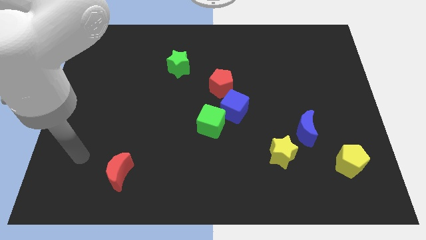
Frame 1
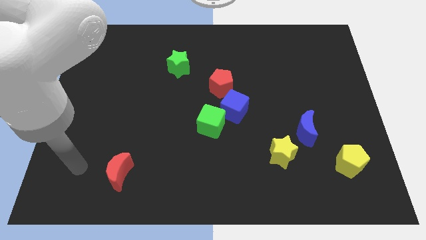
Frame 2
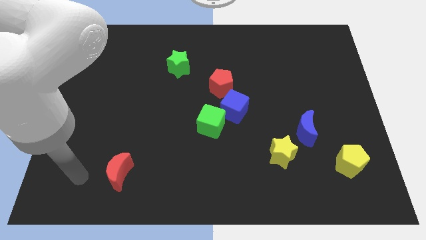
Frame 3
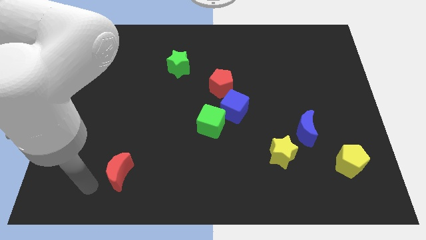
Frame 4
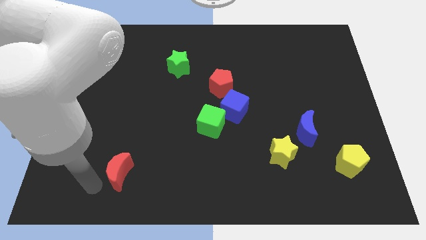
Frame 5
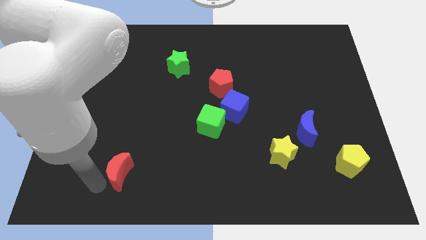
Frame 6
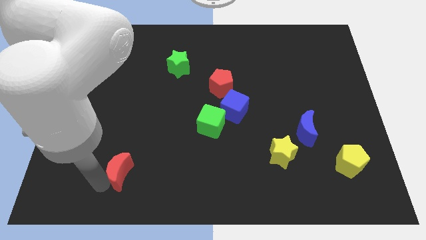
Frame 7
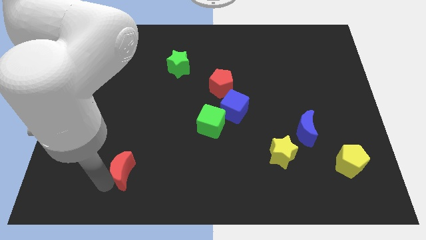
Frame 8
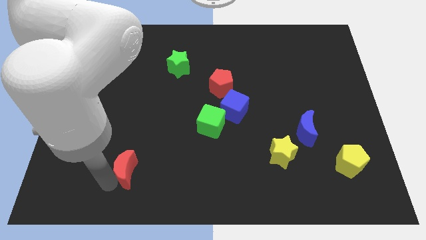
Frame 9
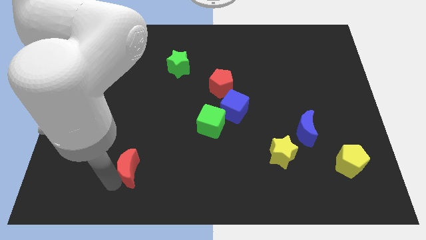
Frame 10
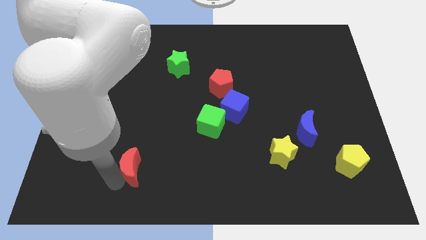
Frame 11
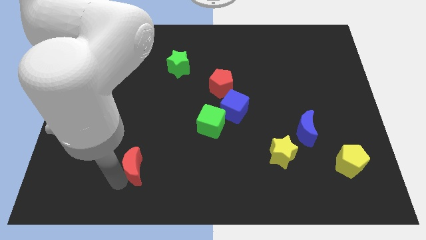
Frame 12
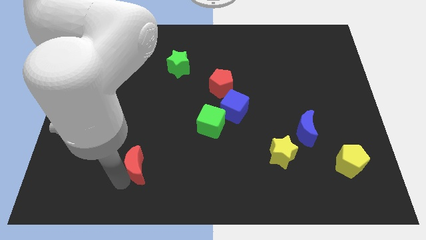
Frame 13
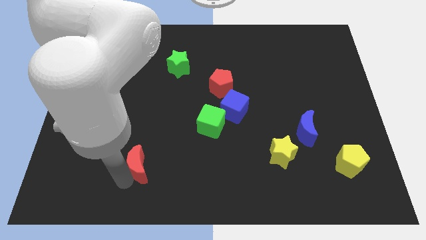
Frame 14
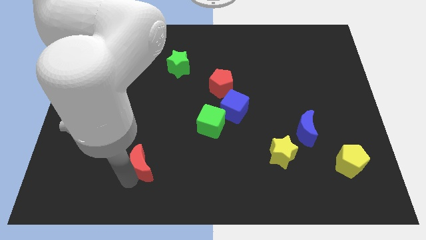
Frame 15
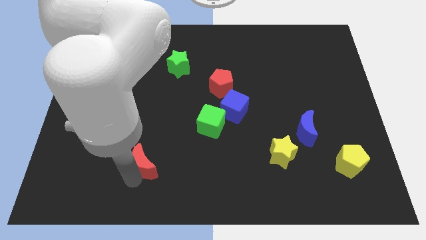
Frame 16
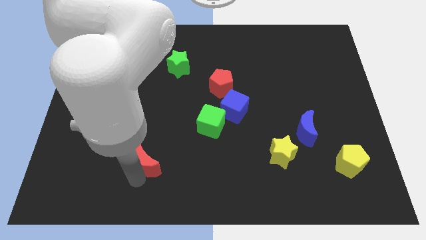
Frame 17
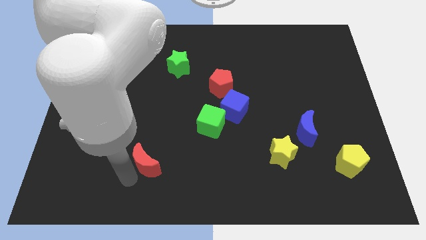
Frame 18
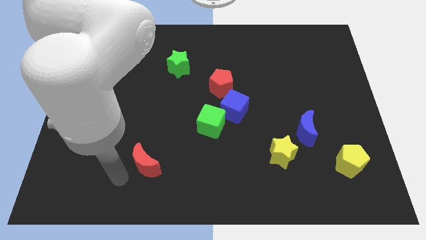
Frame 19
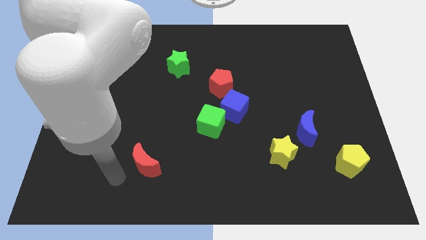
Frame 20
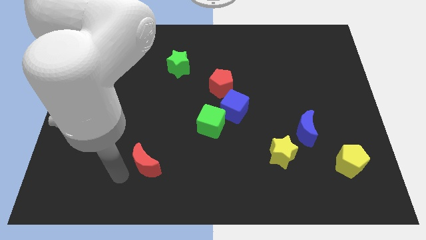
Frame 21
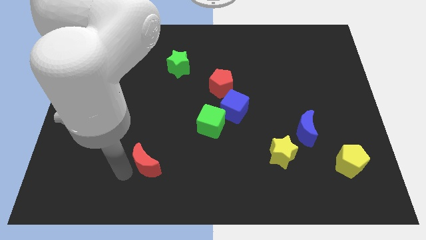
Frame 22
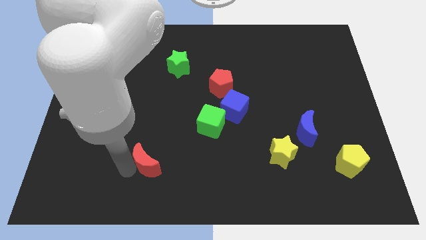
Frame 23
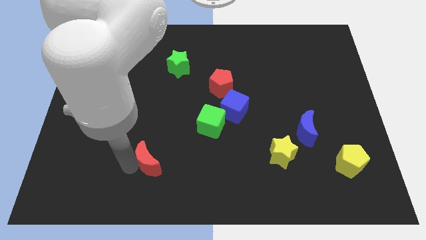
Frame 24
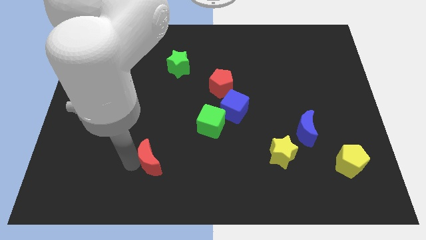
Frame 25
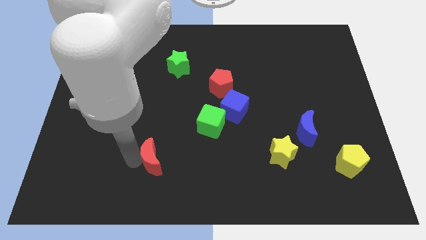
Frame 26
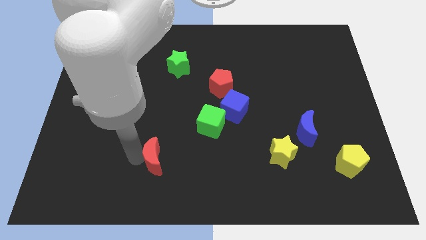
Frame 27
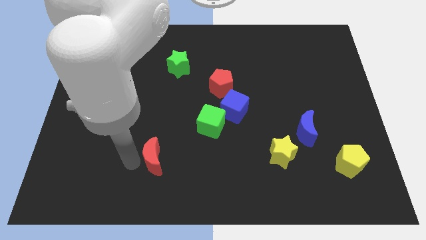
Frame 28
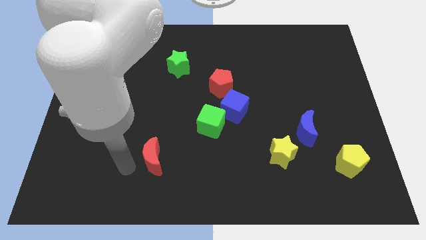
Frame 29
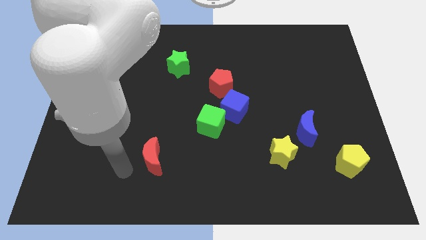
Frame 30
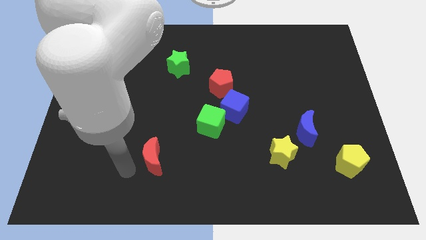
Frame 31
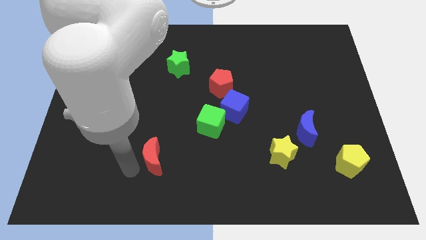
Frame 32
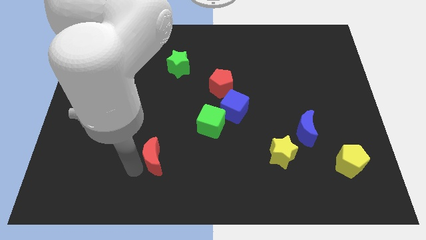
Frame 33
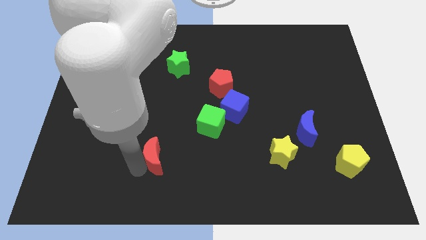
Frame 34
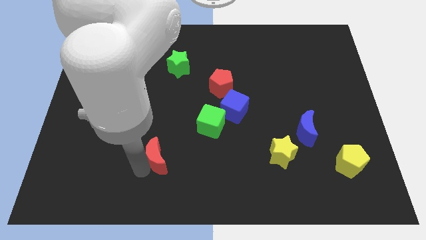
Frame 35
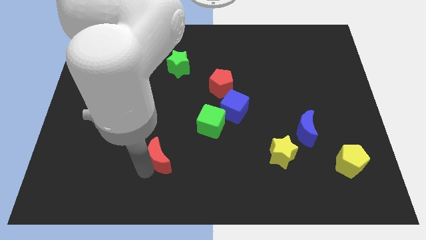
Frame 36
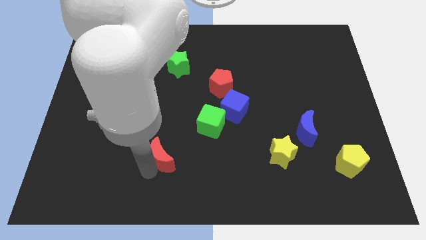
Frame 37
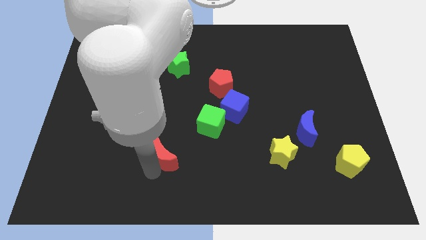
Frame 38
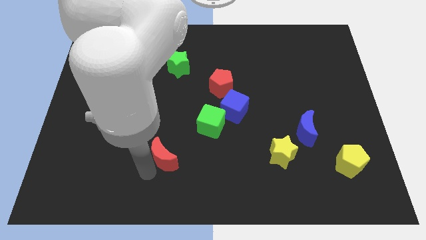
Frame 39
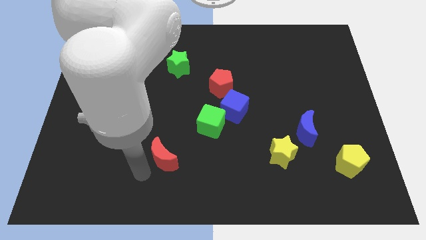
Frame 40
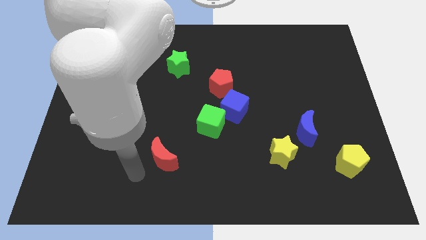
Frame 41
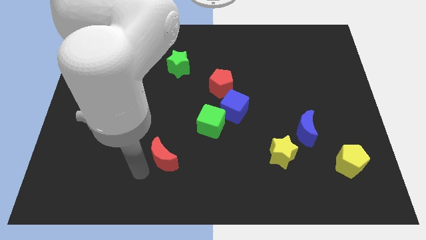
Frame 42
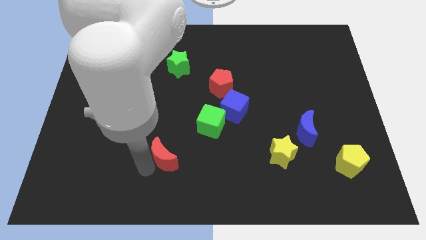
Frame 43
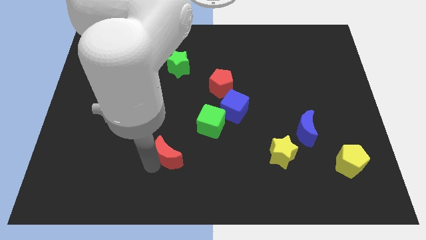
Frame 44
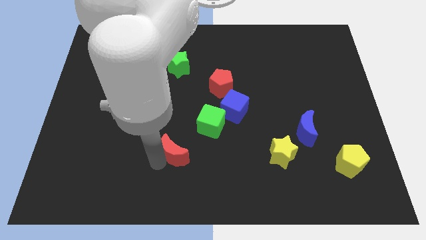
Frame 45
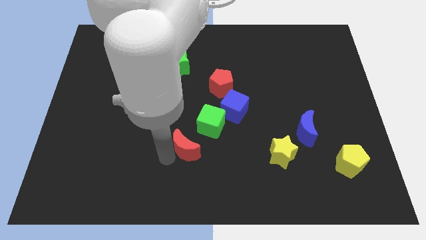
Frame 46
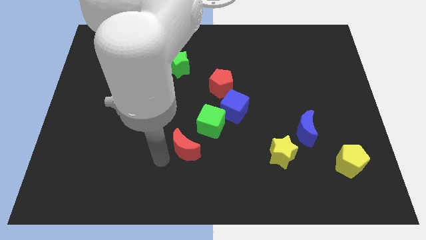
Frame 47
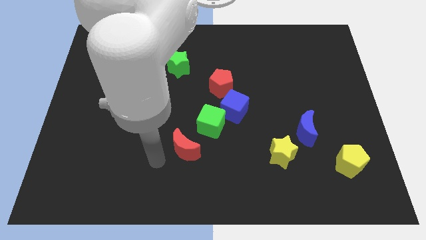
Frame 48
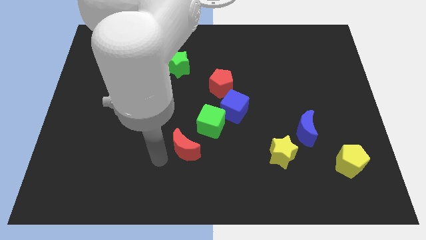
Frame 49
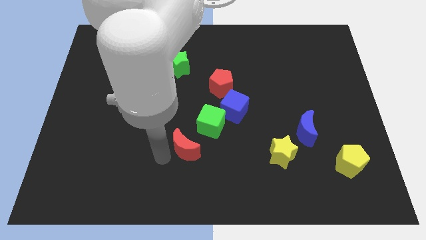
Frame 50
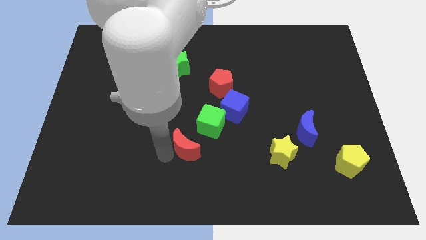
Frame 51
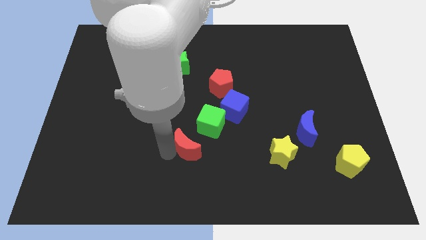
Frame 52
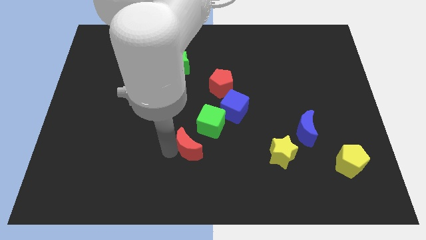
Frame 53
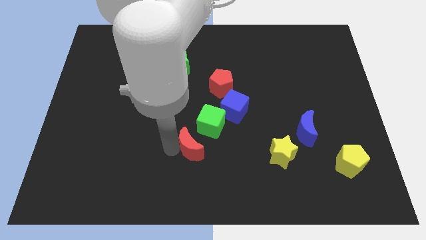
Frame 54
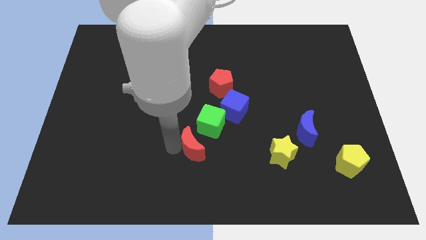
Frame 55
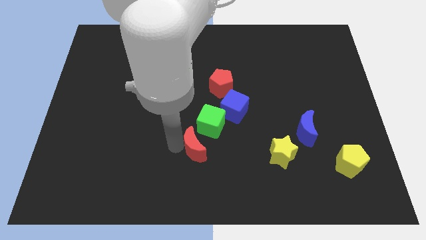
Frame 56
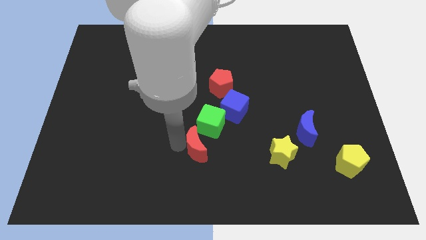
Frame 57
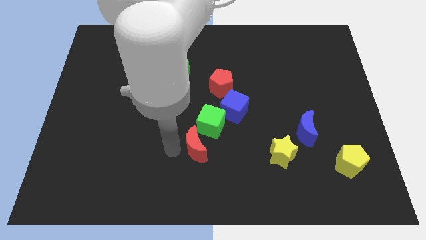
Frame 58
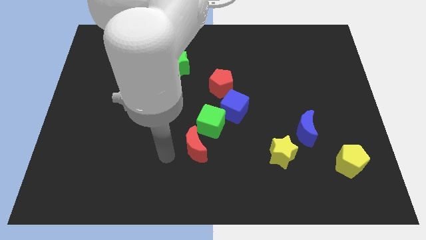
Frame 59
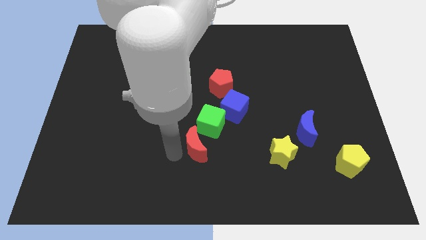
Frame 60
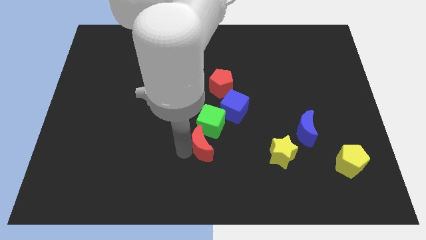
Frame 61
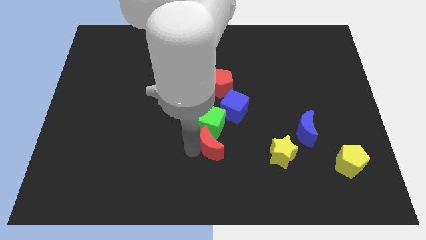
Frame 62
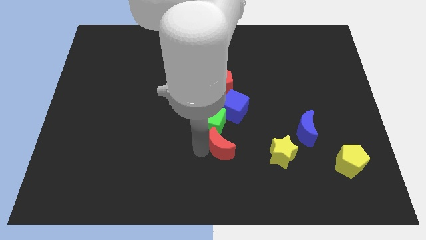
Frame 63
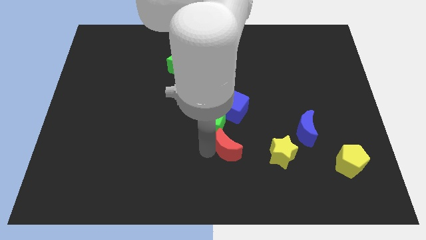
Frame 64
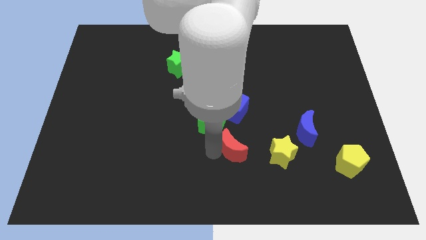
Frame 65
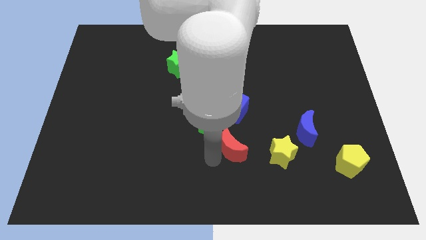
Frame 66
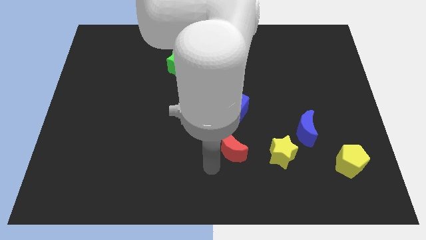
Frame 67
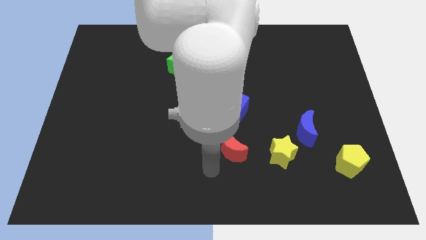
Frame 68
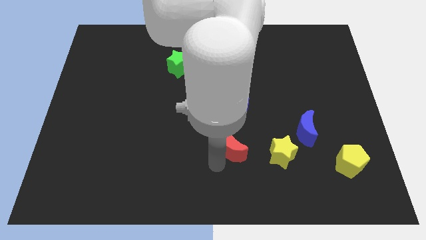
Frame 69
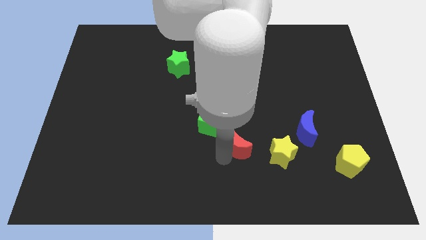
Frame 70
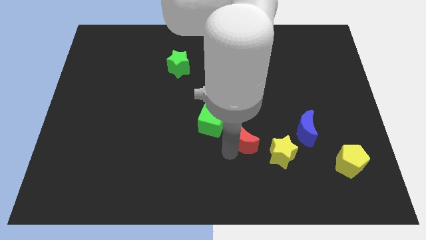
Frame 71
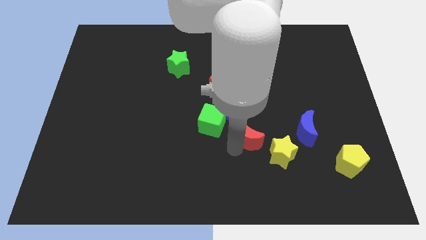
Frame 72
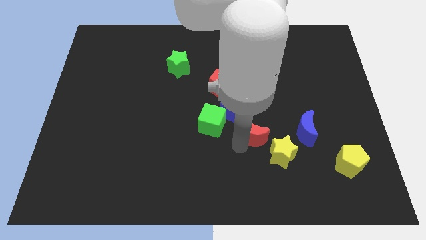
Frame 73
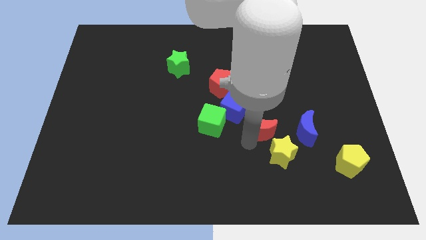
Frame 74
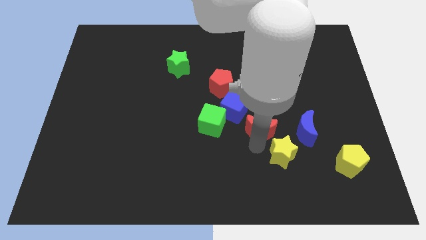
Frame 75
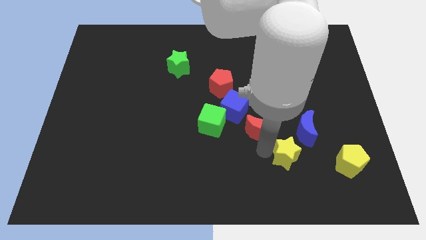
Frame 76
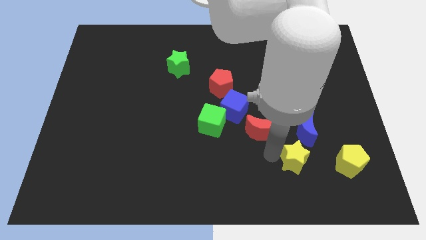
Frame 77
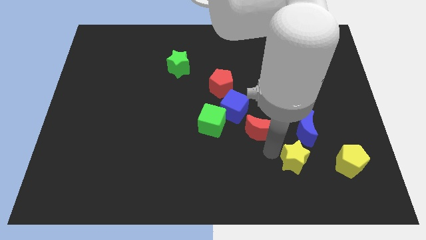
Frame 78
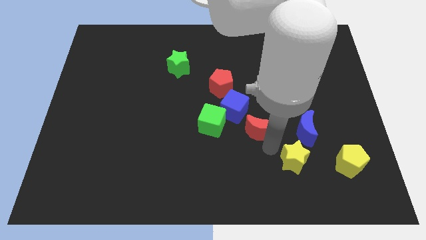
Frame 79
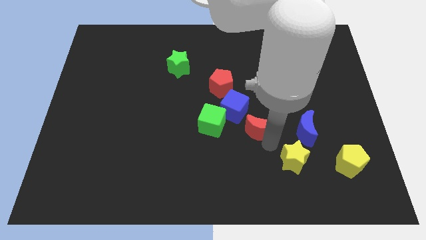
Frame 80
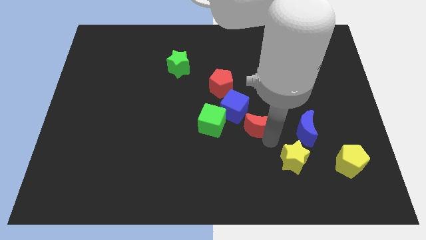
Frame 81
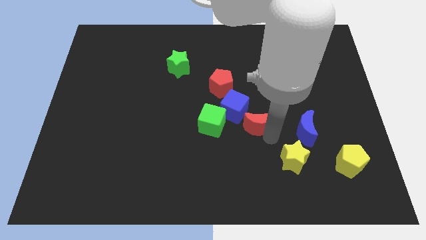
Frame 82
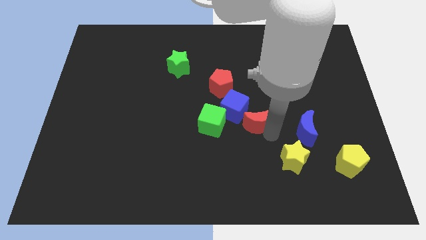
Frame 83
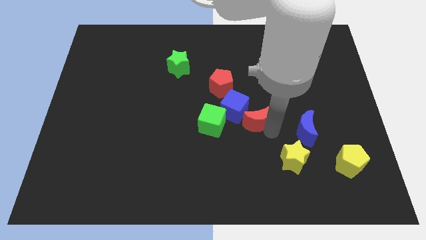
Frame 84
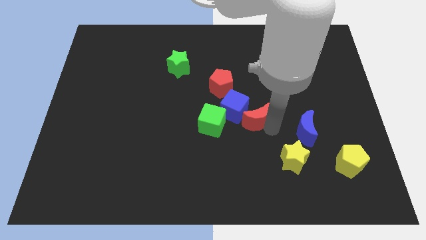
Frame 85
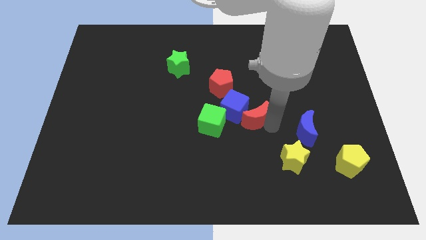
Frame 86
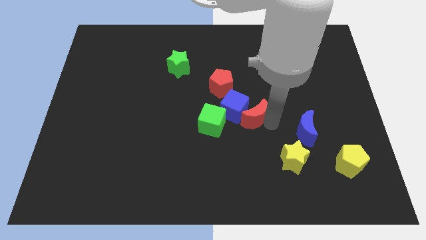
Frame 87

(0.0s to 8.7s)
move the red moon diagonally down and to the right of the red pentagon
